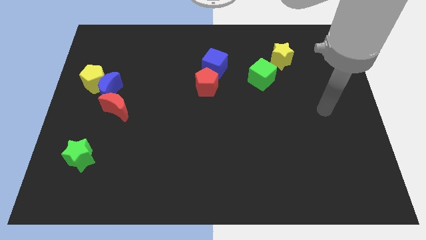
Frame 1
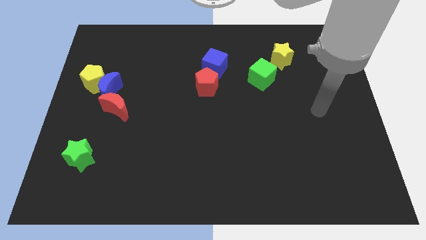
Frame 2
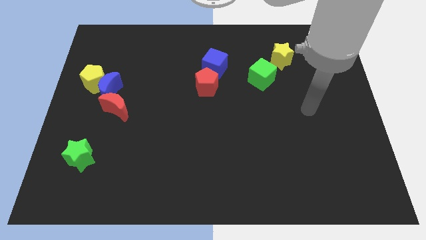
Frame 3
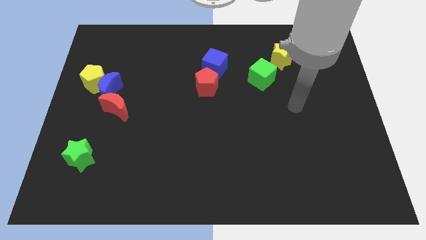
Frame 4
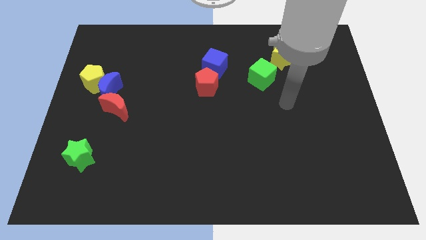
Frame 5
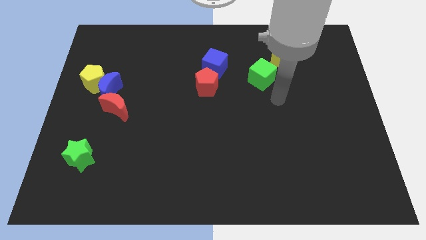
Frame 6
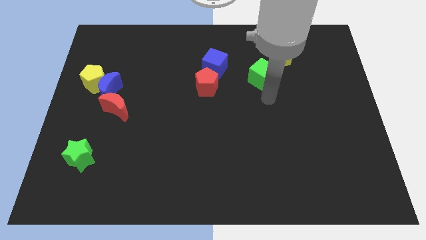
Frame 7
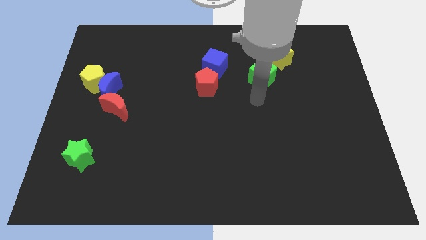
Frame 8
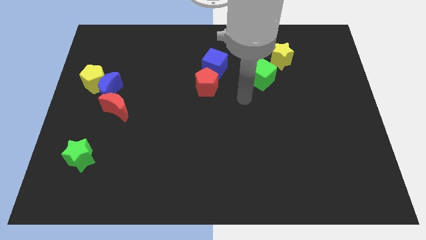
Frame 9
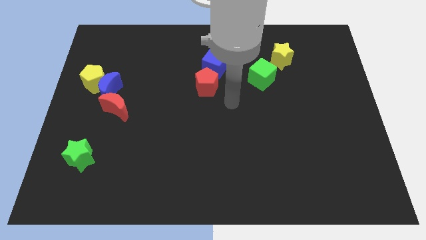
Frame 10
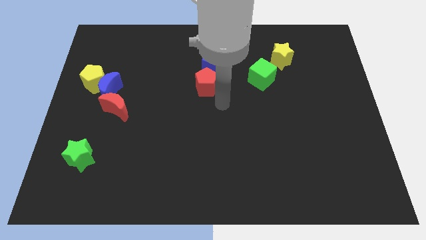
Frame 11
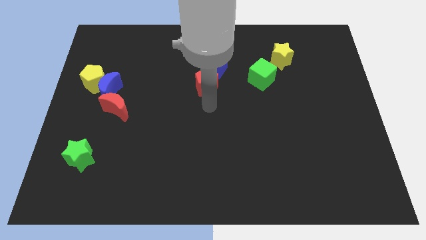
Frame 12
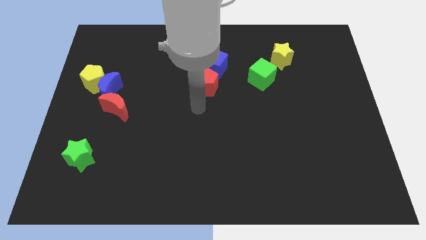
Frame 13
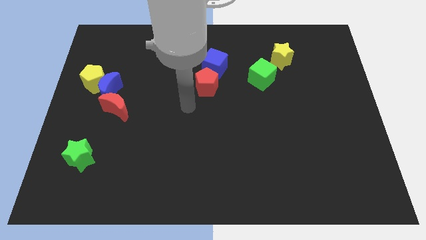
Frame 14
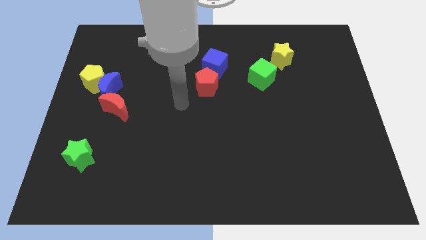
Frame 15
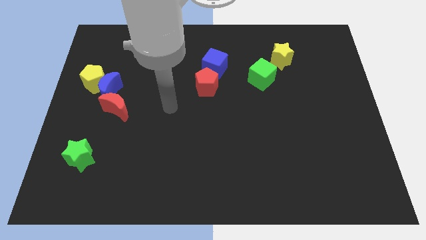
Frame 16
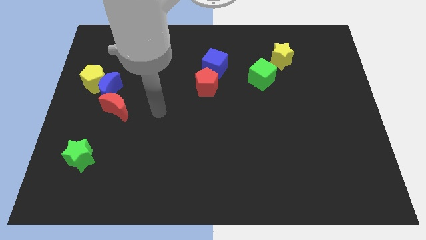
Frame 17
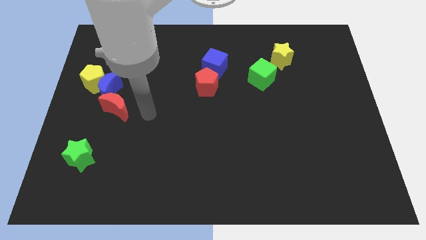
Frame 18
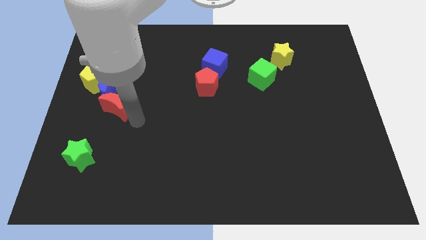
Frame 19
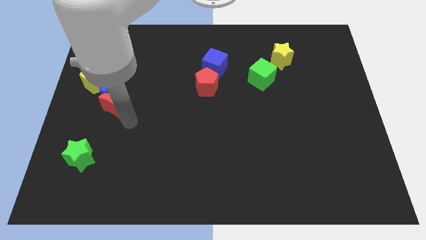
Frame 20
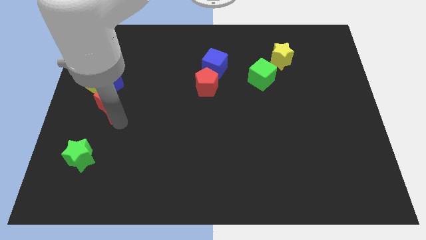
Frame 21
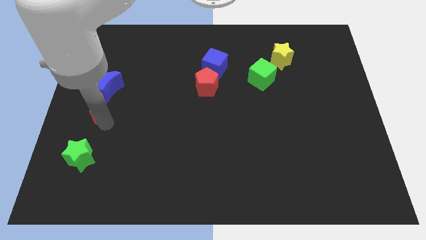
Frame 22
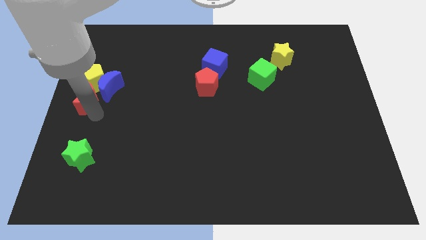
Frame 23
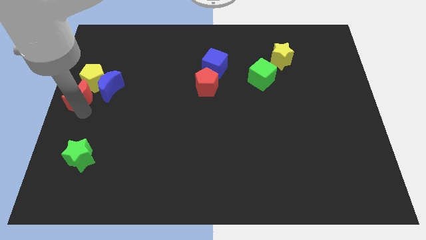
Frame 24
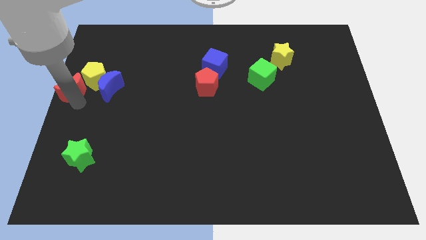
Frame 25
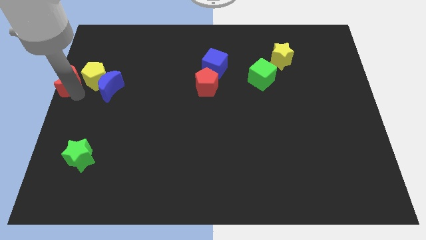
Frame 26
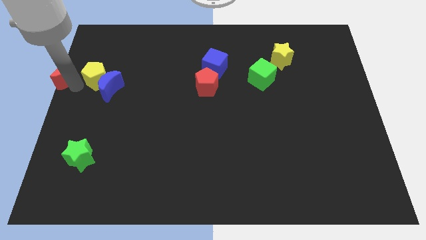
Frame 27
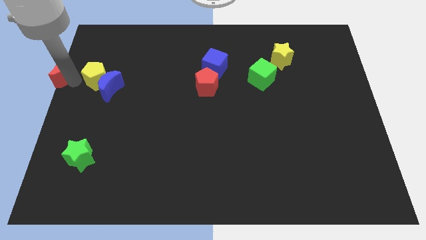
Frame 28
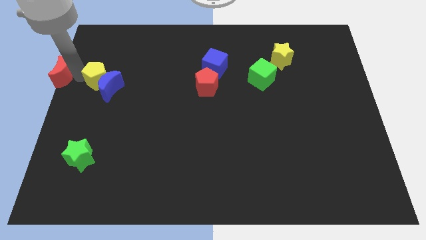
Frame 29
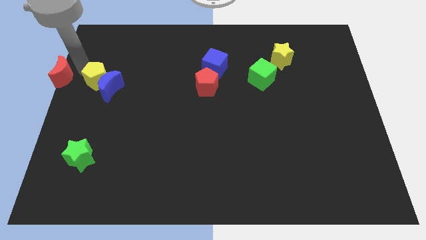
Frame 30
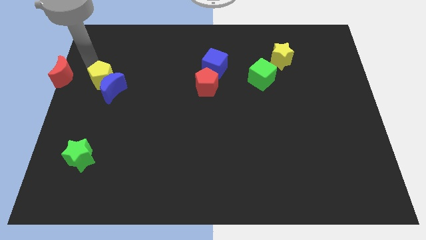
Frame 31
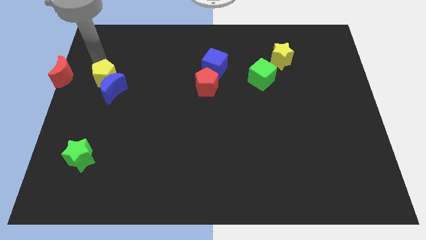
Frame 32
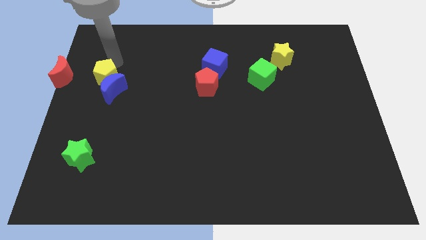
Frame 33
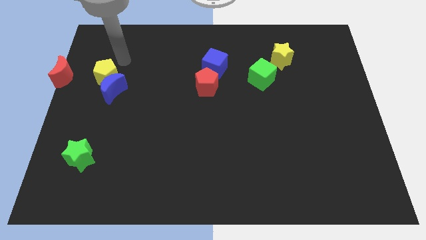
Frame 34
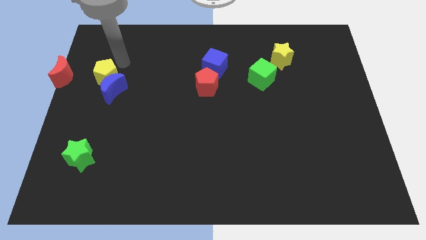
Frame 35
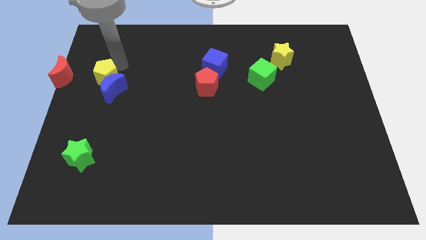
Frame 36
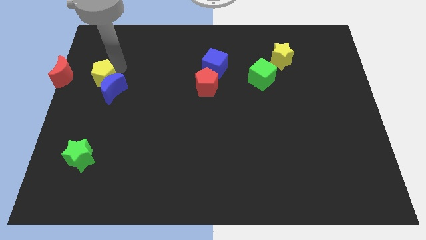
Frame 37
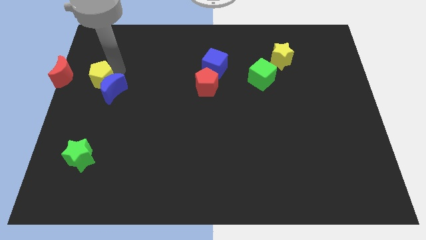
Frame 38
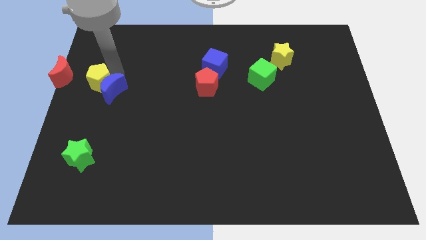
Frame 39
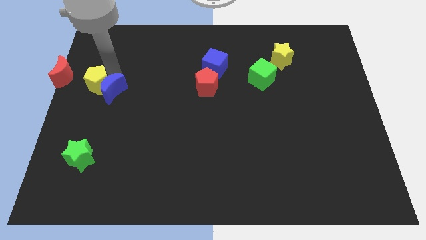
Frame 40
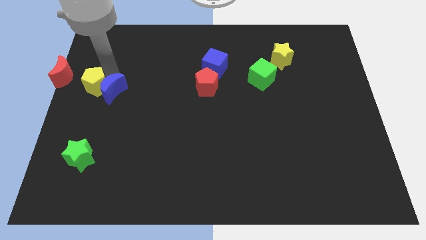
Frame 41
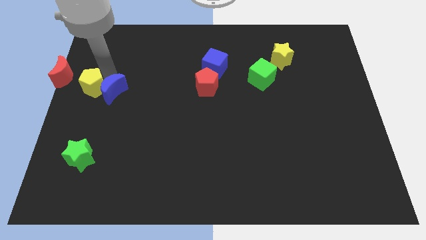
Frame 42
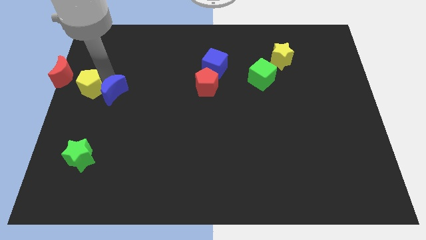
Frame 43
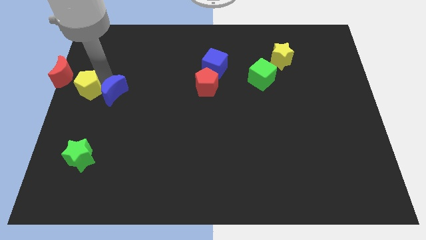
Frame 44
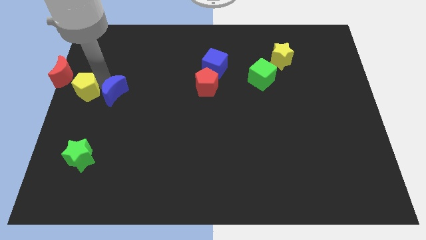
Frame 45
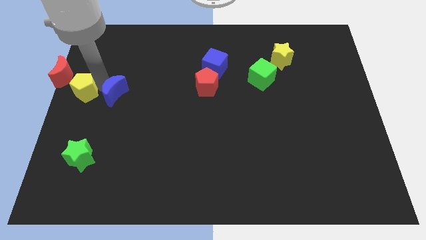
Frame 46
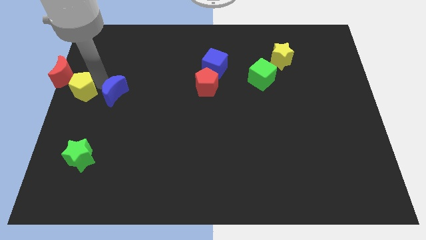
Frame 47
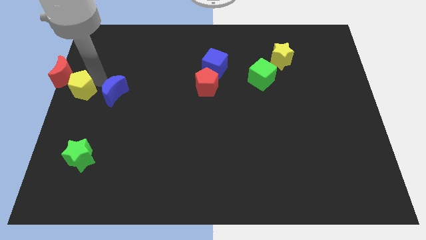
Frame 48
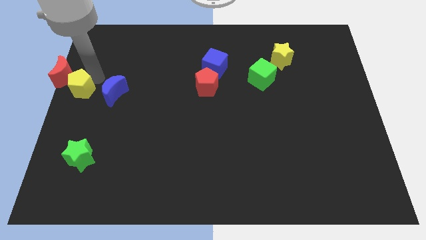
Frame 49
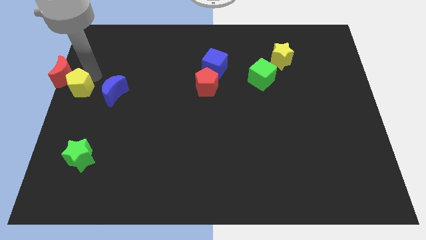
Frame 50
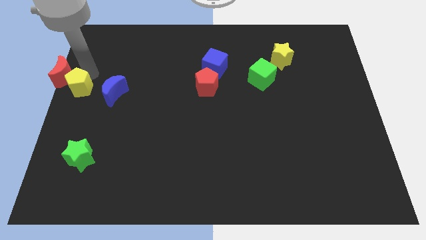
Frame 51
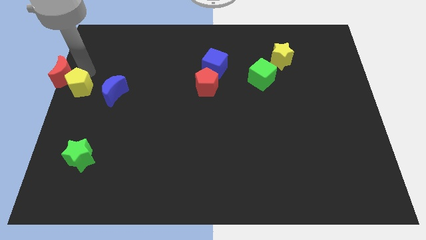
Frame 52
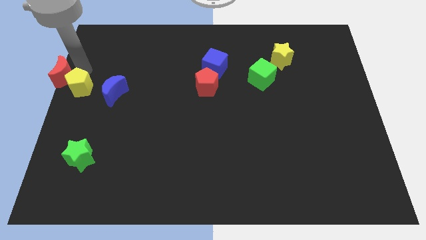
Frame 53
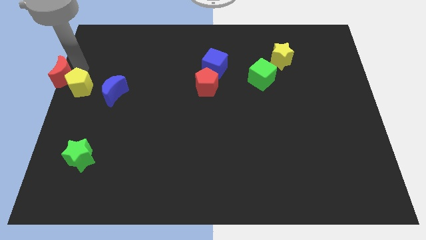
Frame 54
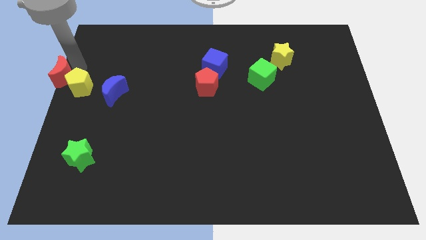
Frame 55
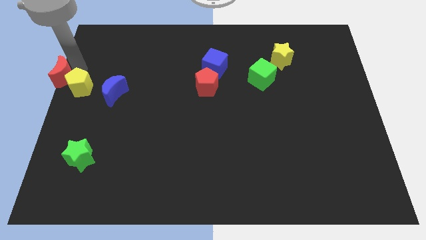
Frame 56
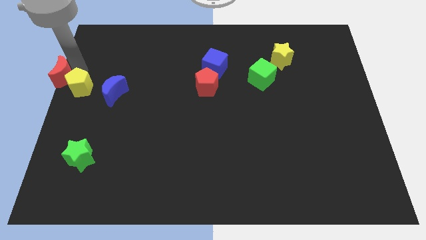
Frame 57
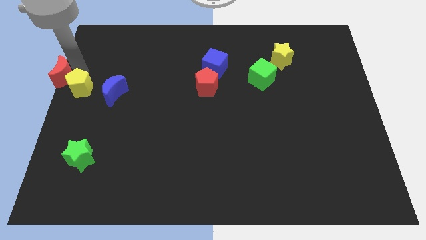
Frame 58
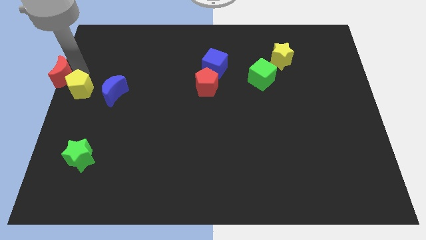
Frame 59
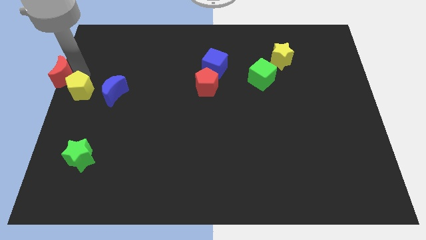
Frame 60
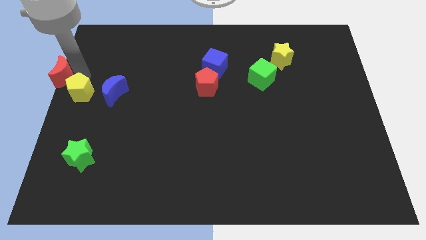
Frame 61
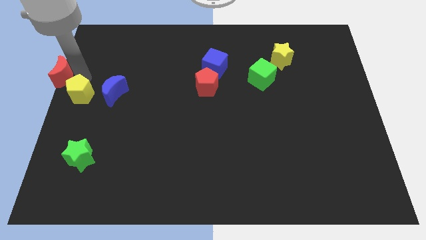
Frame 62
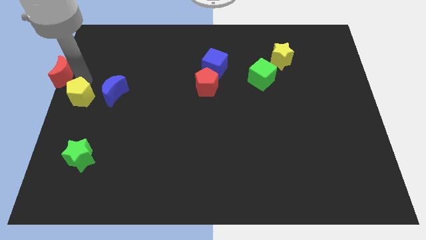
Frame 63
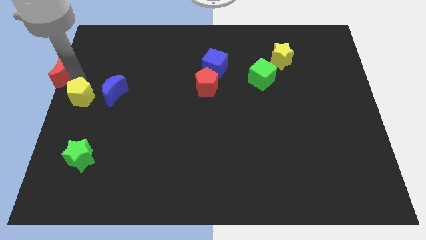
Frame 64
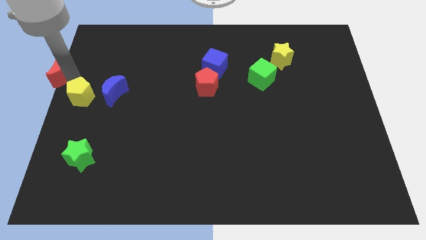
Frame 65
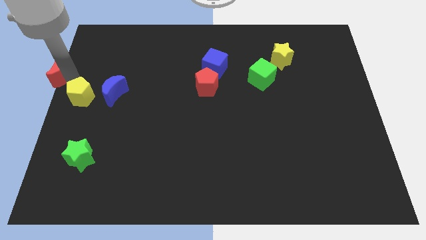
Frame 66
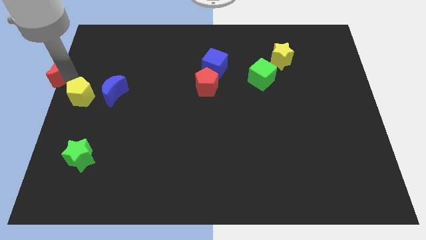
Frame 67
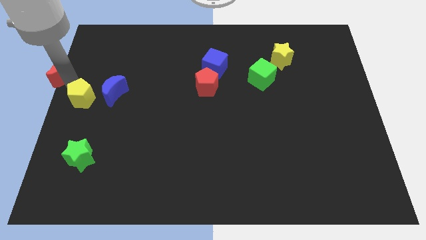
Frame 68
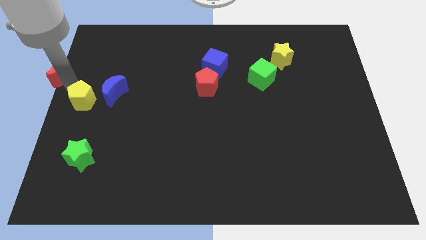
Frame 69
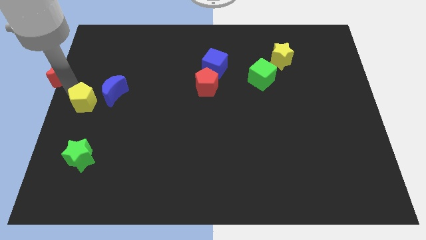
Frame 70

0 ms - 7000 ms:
push the yellow pentagon to the top of the green star

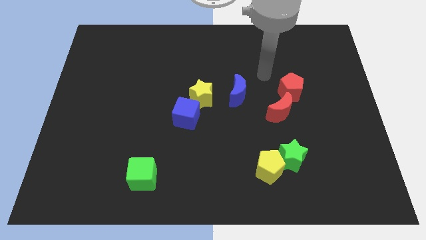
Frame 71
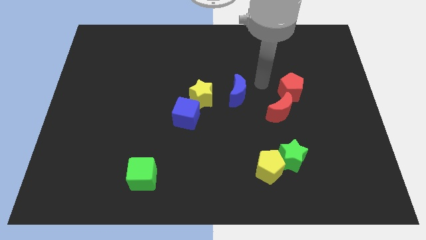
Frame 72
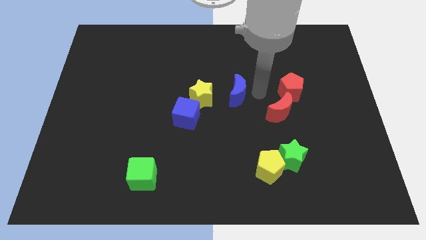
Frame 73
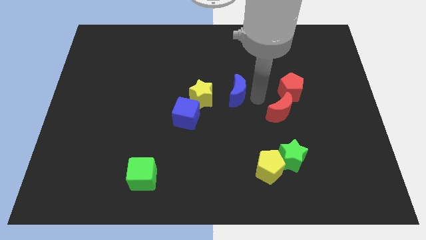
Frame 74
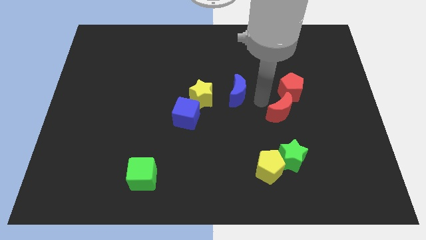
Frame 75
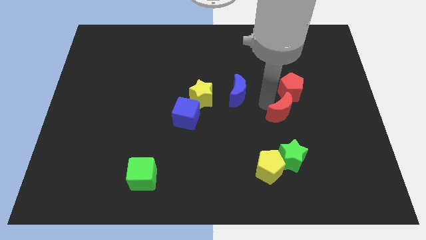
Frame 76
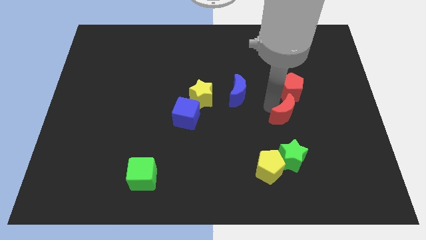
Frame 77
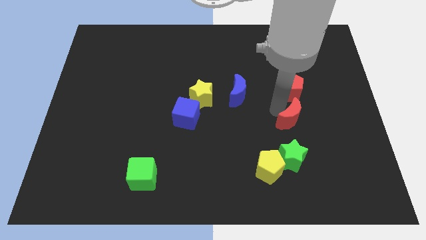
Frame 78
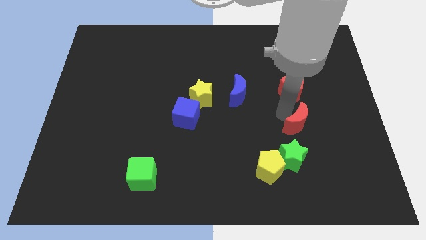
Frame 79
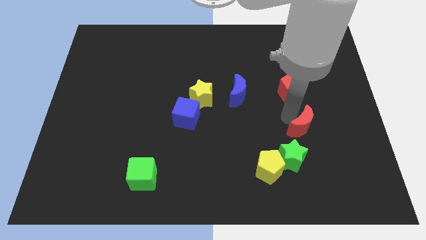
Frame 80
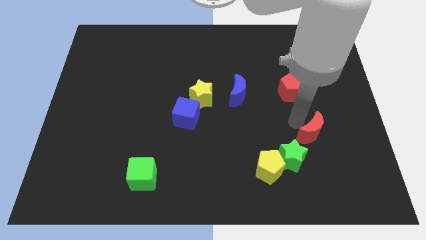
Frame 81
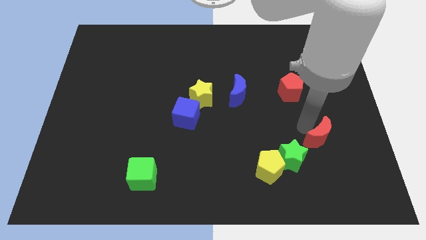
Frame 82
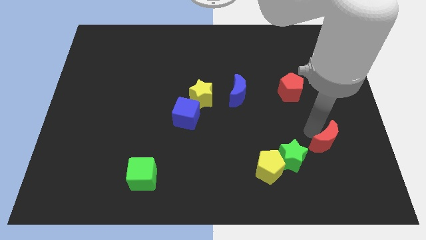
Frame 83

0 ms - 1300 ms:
push the red moon just right of the green star
